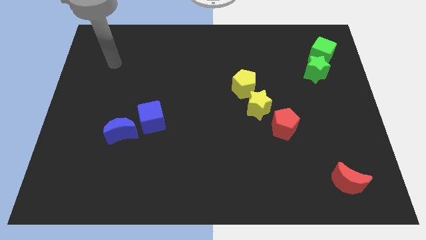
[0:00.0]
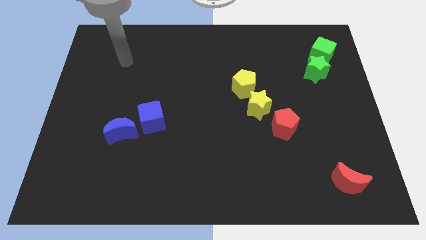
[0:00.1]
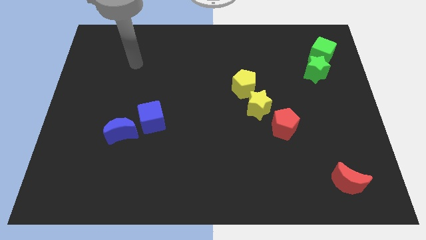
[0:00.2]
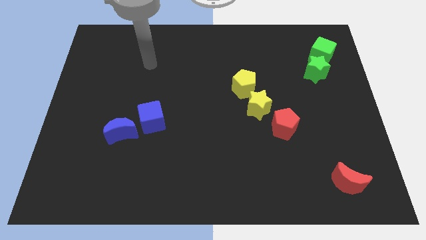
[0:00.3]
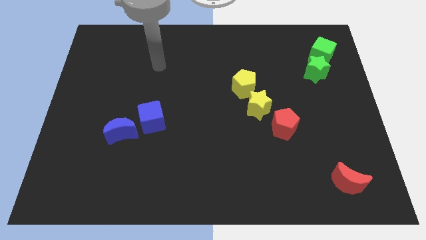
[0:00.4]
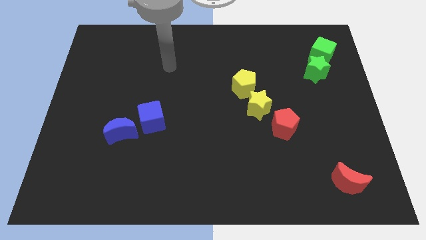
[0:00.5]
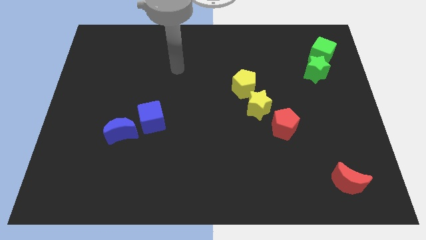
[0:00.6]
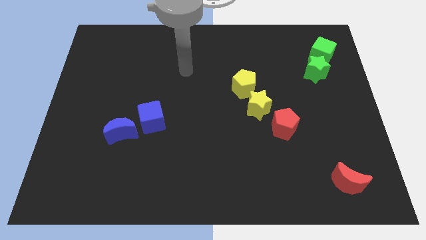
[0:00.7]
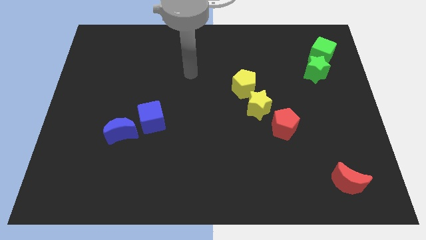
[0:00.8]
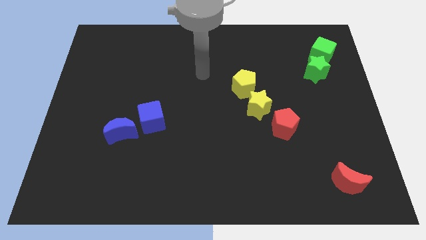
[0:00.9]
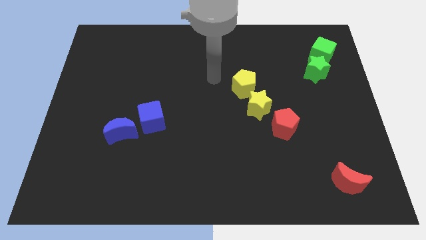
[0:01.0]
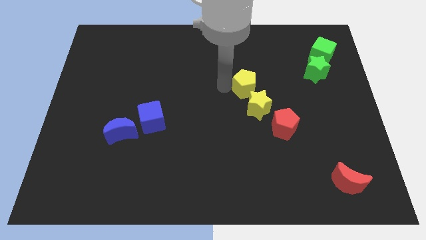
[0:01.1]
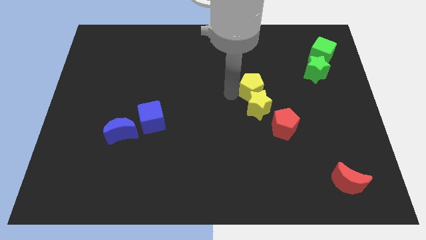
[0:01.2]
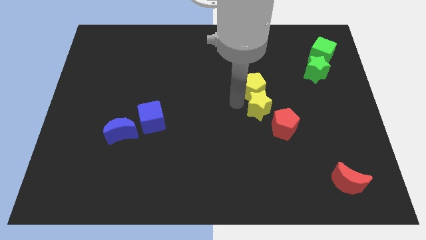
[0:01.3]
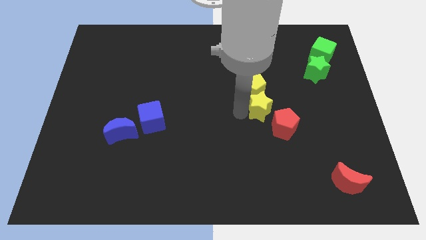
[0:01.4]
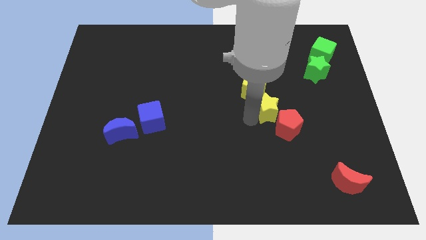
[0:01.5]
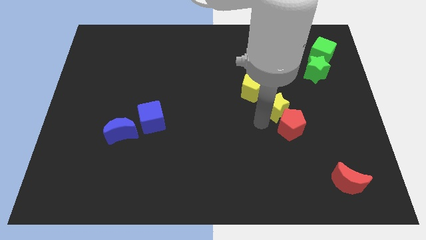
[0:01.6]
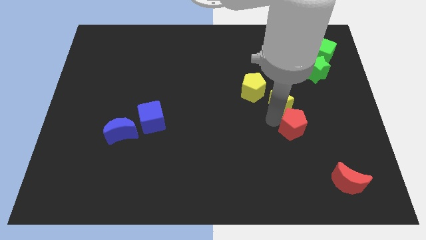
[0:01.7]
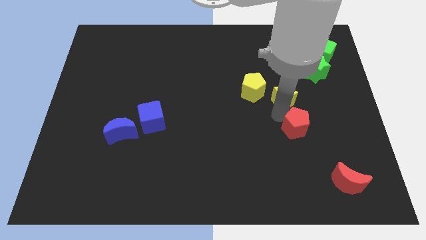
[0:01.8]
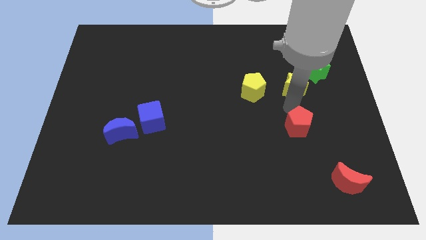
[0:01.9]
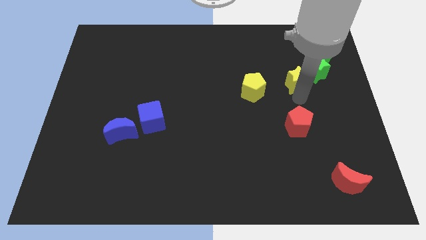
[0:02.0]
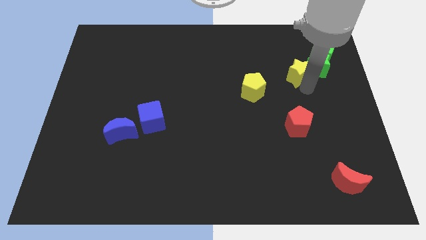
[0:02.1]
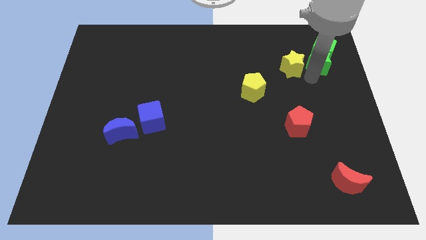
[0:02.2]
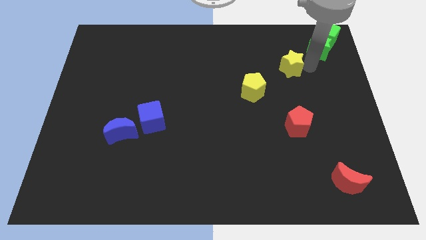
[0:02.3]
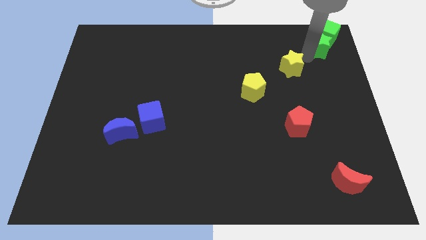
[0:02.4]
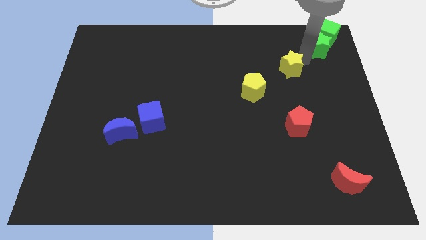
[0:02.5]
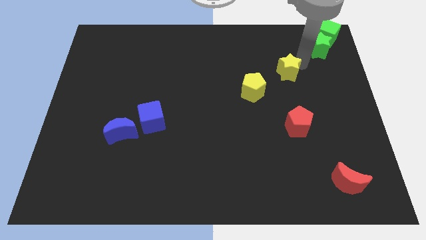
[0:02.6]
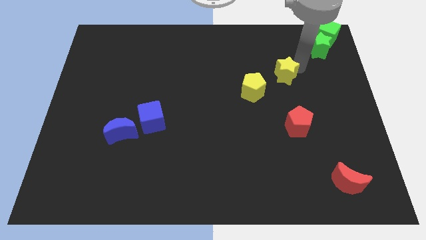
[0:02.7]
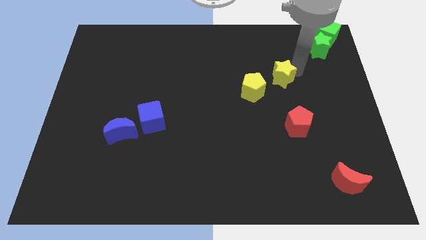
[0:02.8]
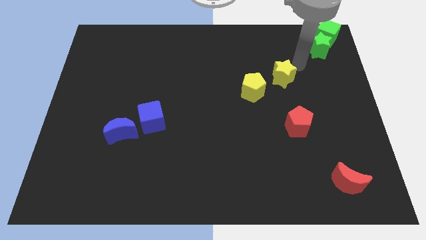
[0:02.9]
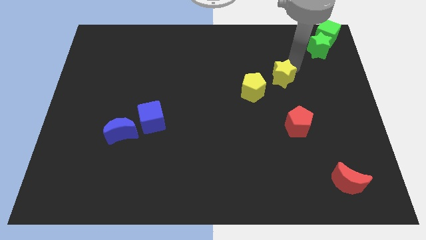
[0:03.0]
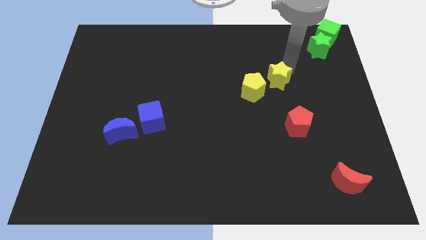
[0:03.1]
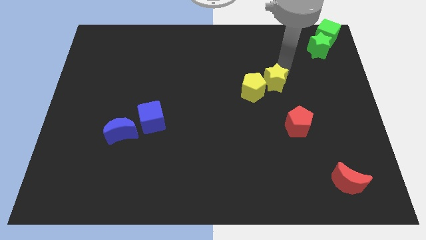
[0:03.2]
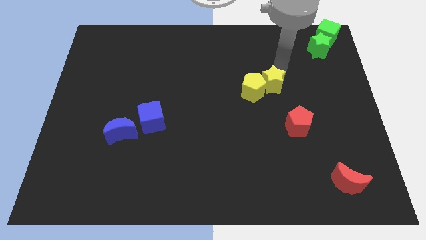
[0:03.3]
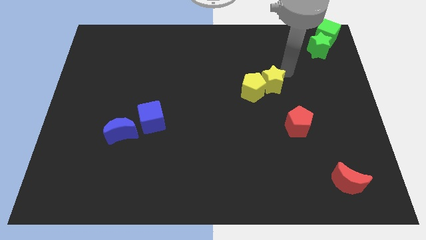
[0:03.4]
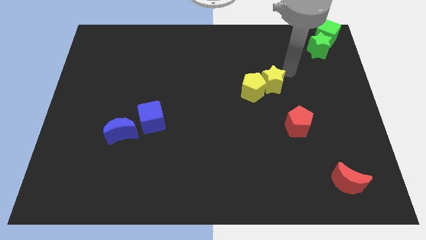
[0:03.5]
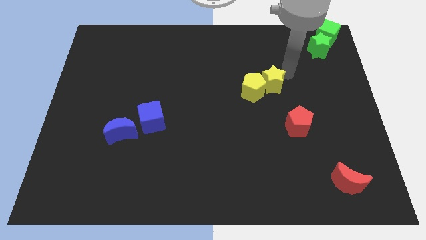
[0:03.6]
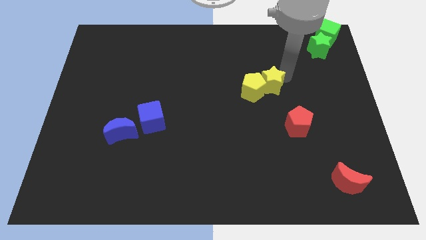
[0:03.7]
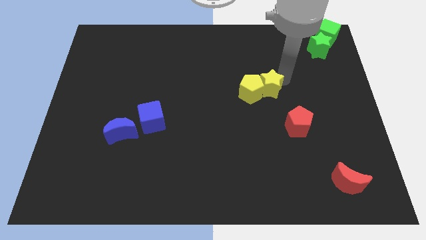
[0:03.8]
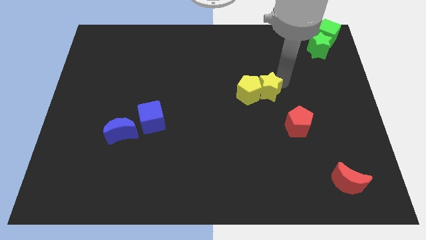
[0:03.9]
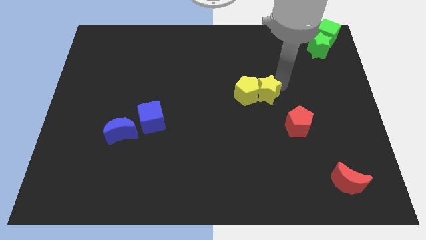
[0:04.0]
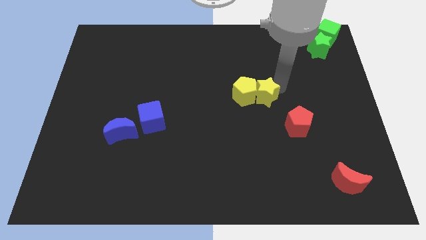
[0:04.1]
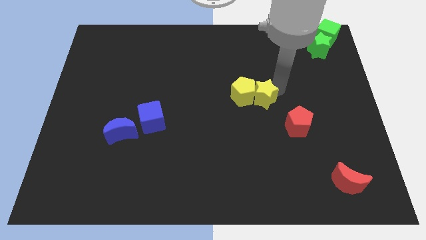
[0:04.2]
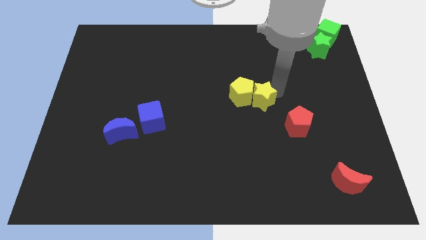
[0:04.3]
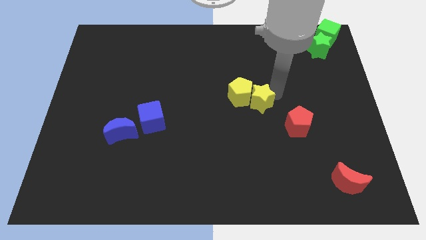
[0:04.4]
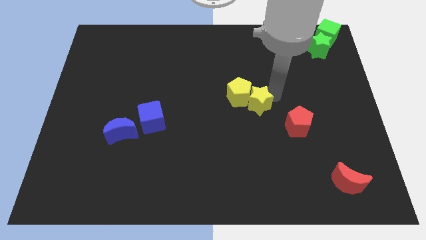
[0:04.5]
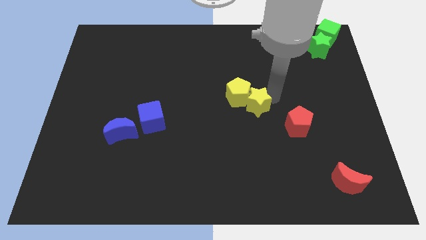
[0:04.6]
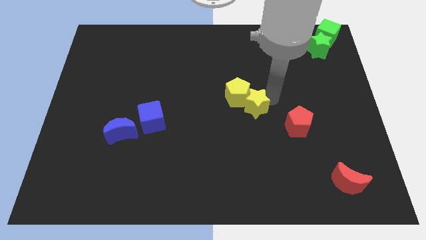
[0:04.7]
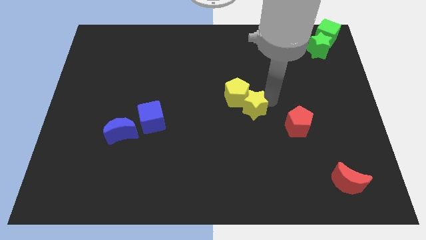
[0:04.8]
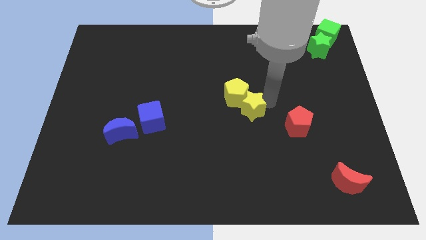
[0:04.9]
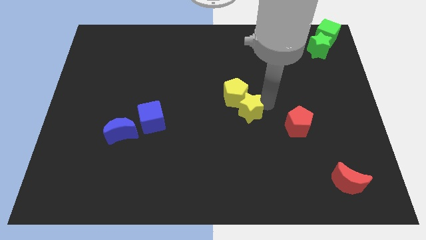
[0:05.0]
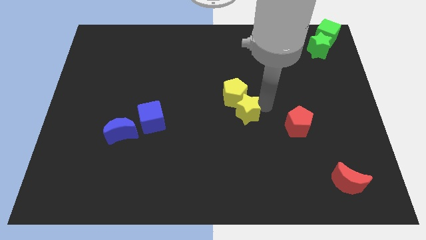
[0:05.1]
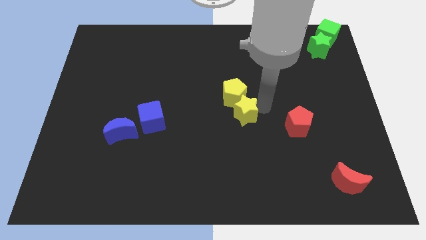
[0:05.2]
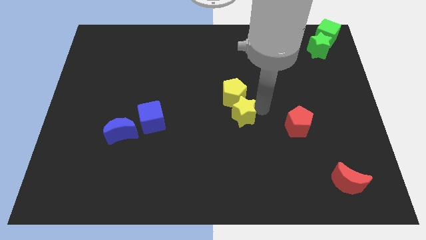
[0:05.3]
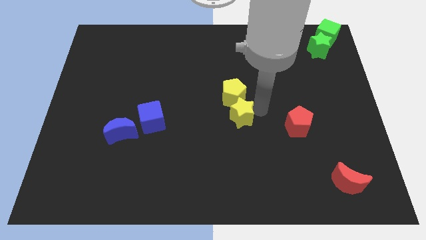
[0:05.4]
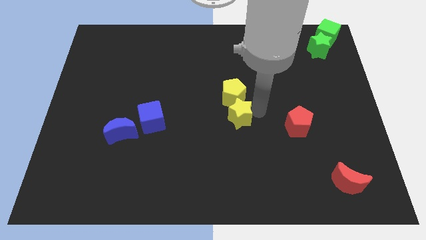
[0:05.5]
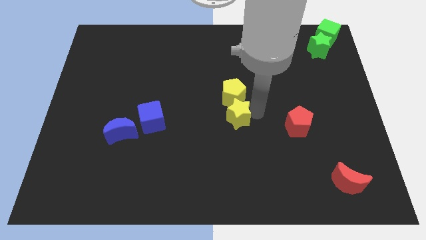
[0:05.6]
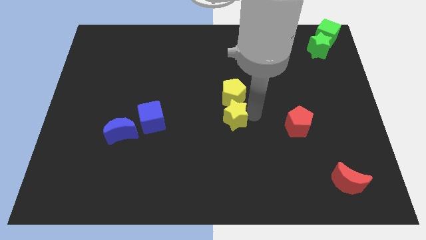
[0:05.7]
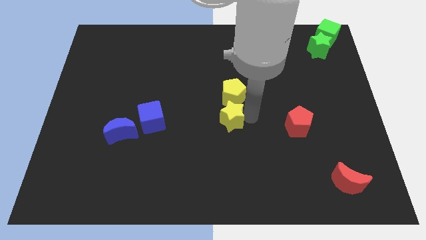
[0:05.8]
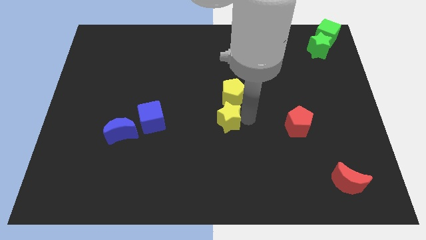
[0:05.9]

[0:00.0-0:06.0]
push the yellow star left a little bit

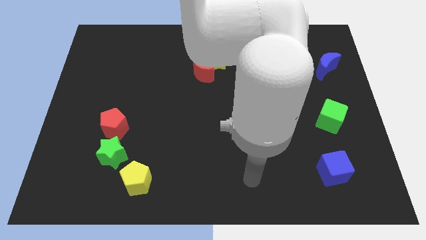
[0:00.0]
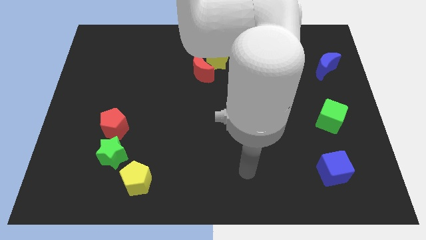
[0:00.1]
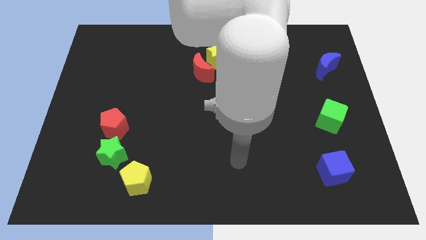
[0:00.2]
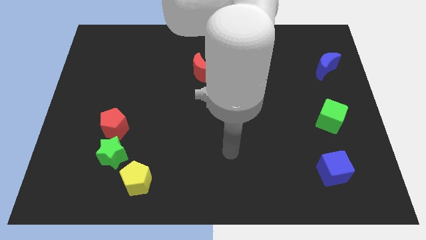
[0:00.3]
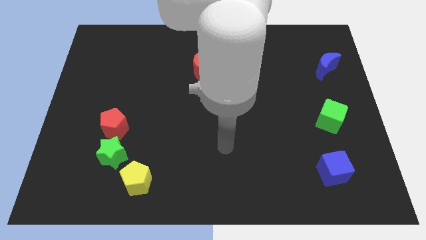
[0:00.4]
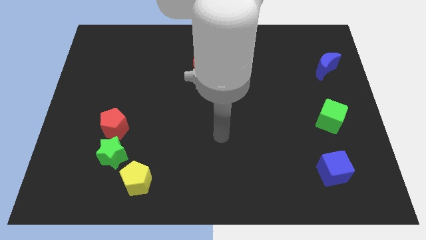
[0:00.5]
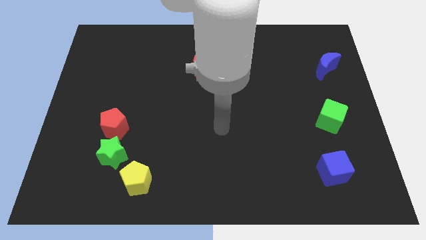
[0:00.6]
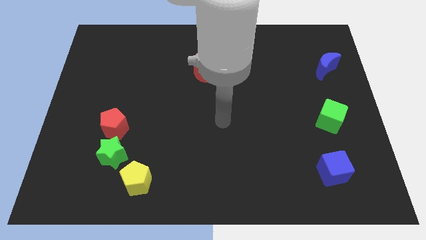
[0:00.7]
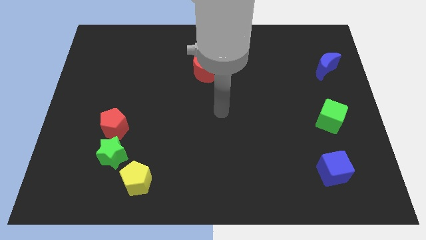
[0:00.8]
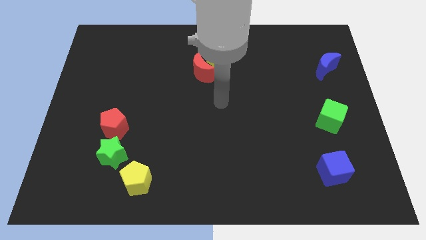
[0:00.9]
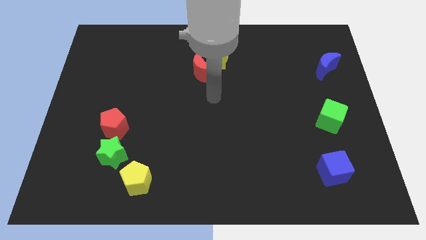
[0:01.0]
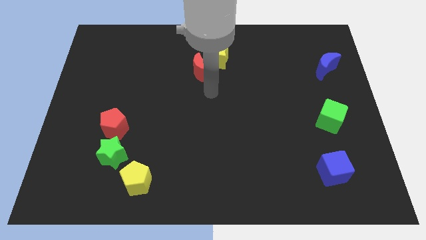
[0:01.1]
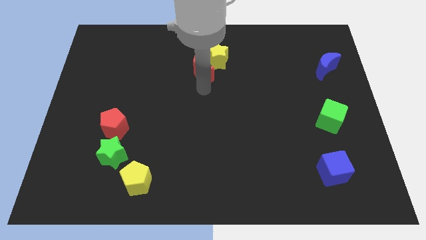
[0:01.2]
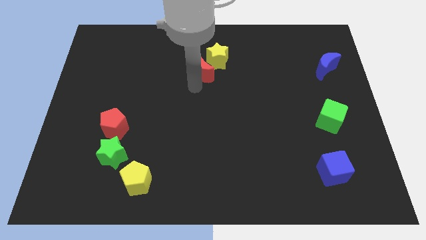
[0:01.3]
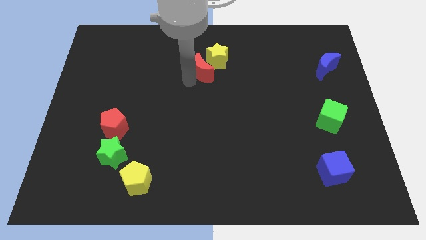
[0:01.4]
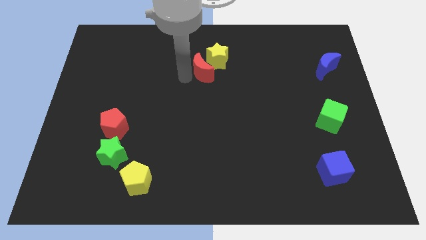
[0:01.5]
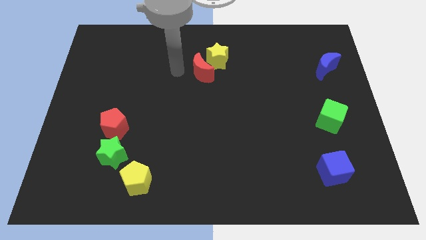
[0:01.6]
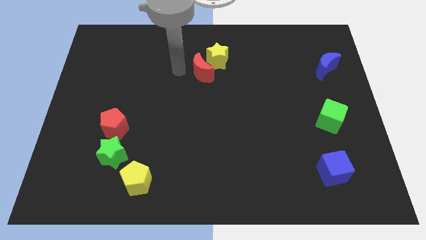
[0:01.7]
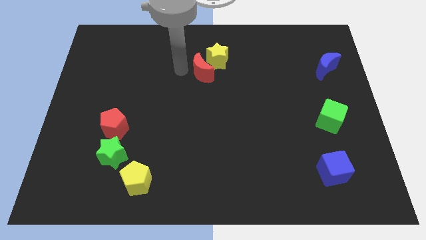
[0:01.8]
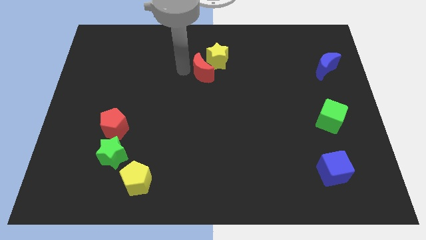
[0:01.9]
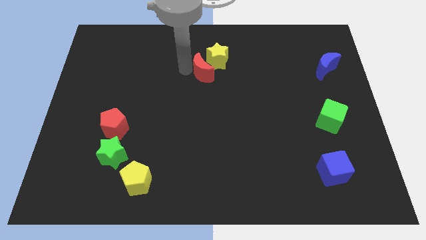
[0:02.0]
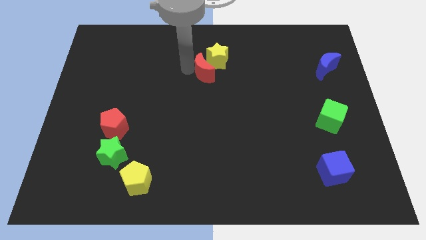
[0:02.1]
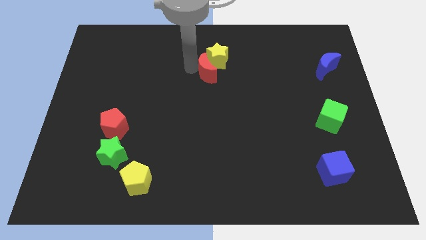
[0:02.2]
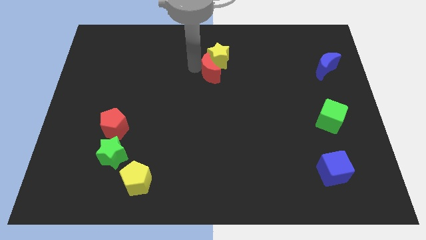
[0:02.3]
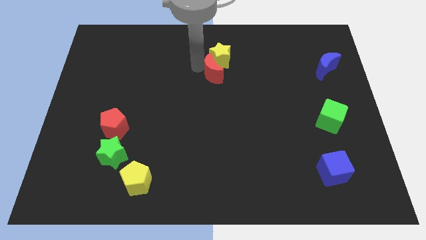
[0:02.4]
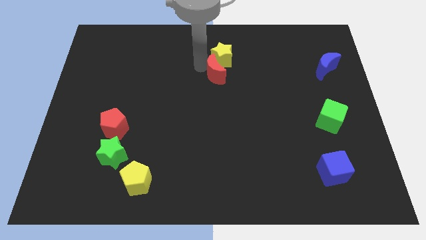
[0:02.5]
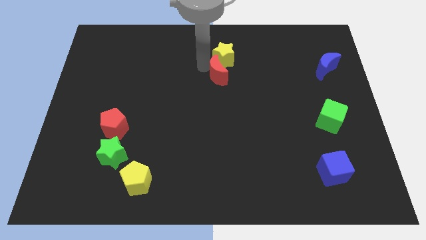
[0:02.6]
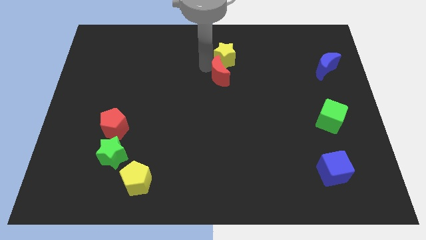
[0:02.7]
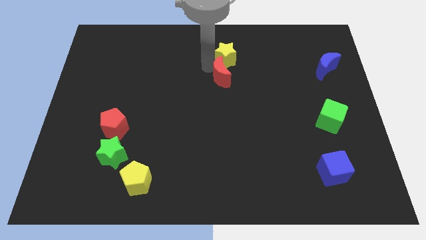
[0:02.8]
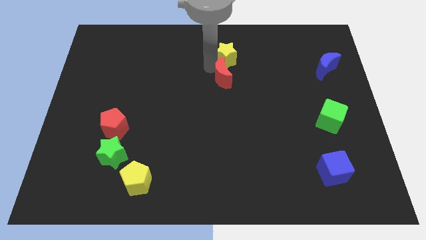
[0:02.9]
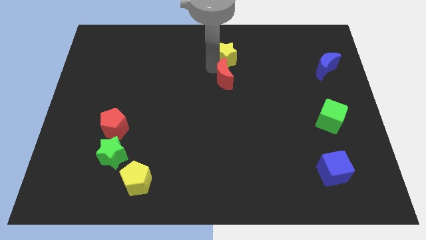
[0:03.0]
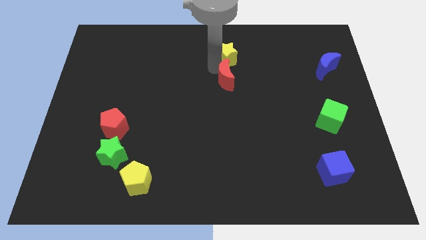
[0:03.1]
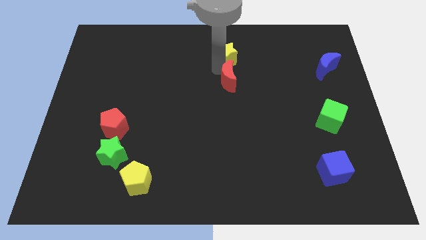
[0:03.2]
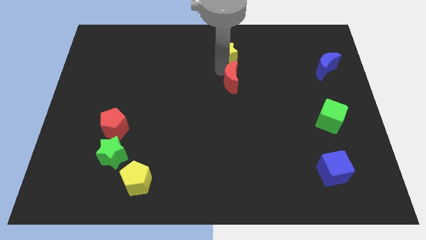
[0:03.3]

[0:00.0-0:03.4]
slide the red moon somewhat to the right
